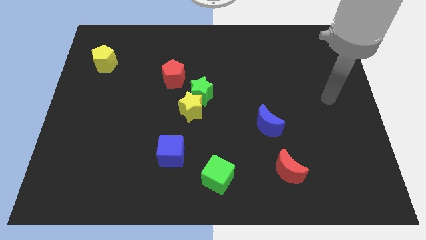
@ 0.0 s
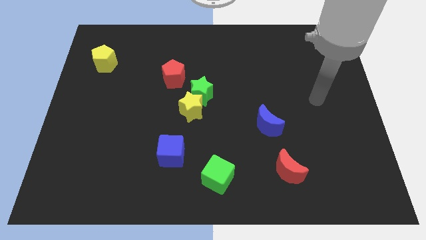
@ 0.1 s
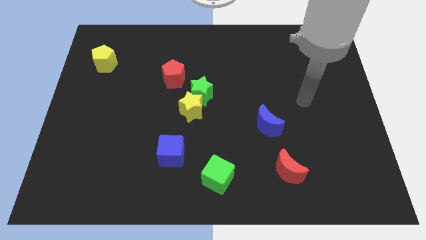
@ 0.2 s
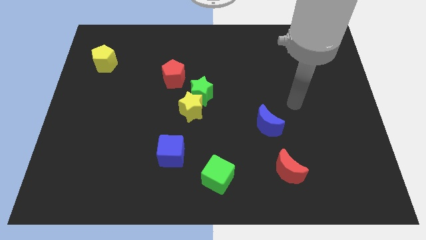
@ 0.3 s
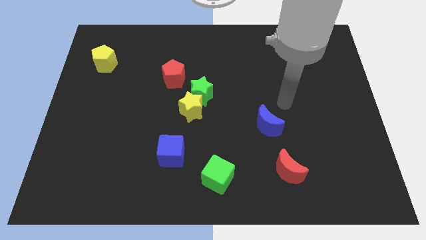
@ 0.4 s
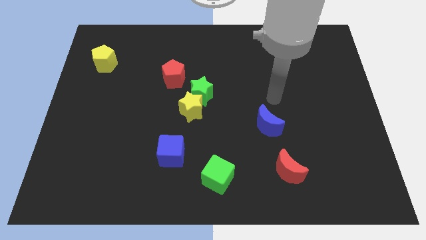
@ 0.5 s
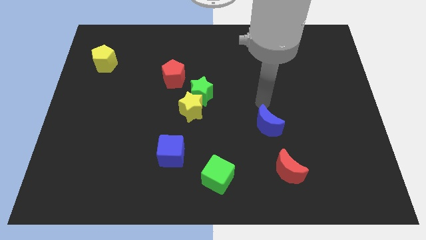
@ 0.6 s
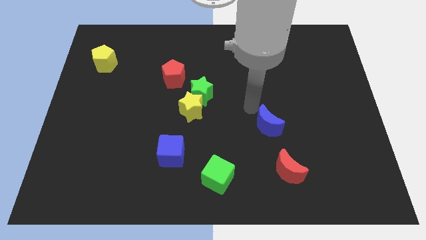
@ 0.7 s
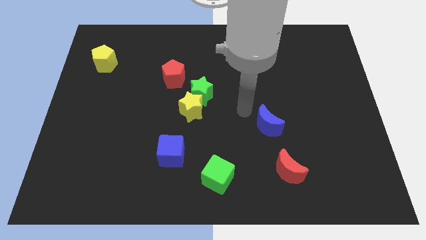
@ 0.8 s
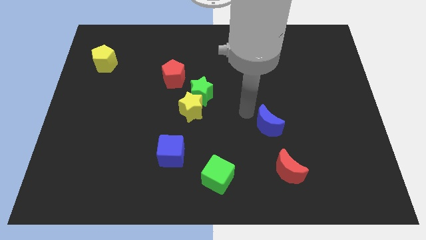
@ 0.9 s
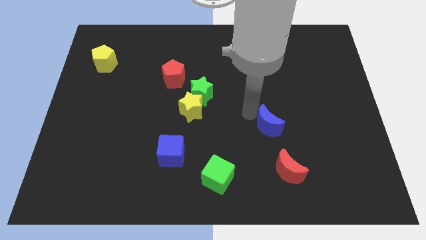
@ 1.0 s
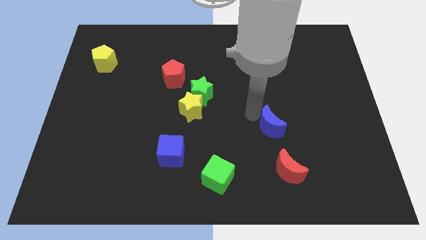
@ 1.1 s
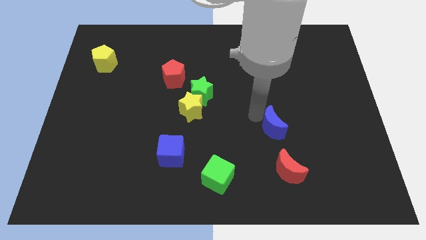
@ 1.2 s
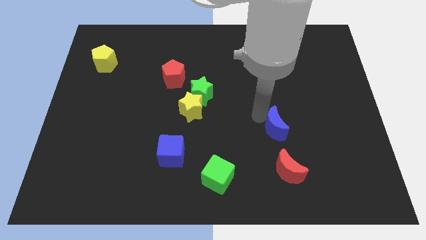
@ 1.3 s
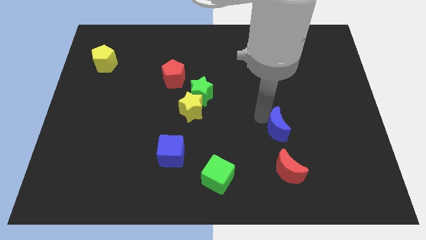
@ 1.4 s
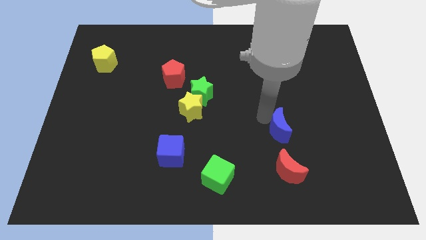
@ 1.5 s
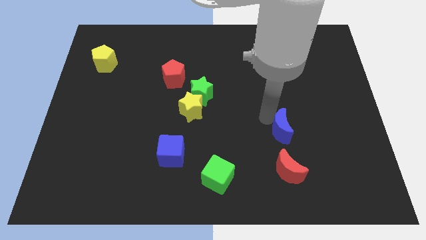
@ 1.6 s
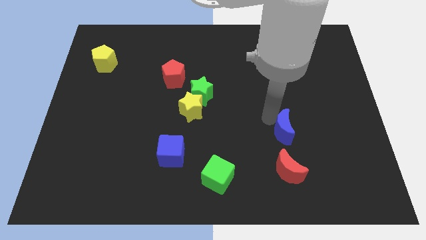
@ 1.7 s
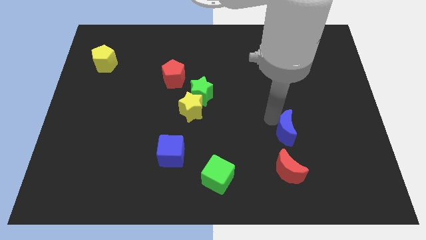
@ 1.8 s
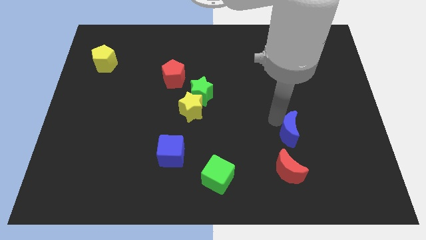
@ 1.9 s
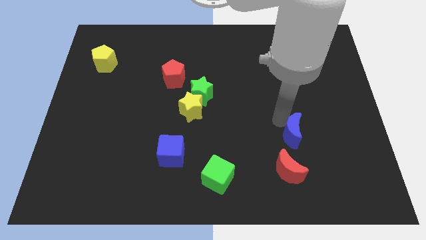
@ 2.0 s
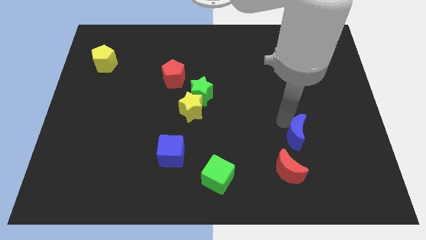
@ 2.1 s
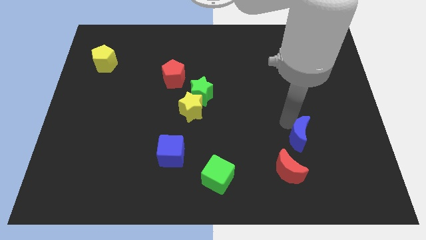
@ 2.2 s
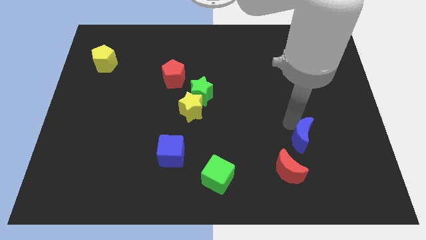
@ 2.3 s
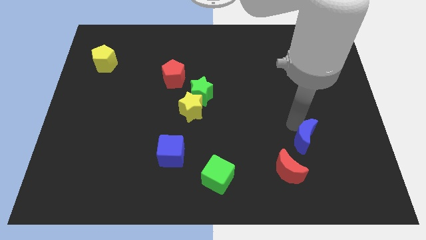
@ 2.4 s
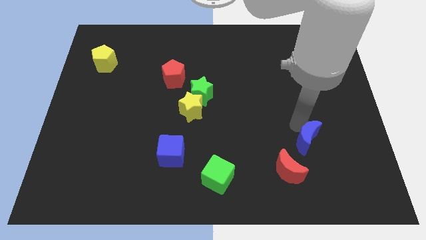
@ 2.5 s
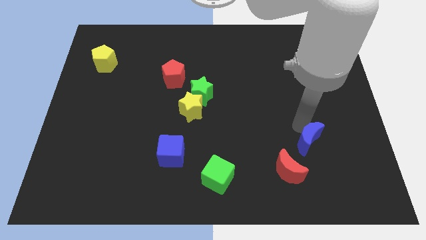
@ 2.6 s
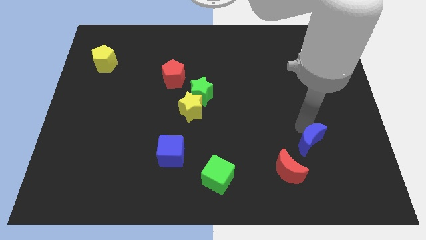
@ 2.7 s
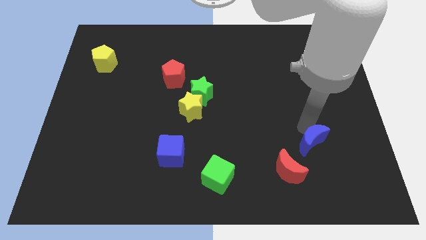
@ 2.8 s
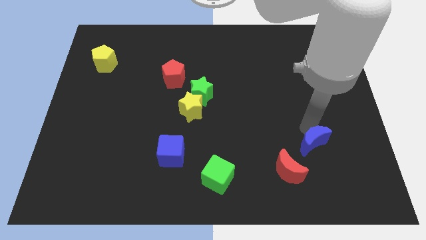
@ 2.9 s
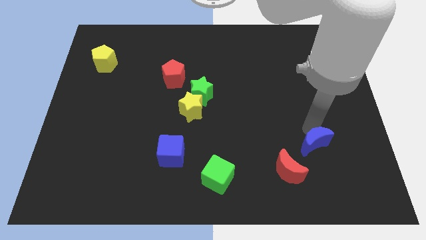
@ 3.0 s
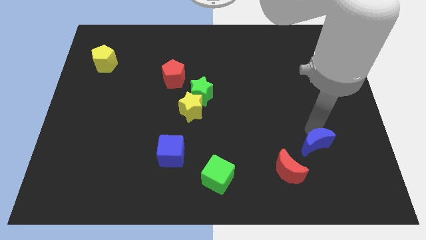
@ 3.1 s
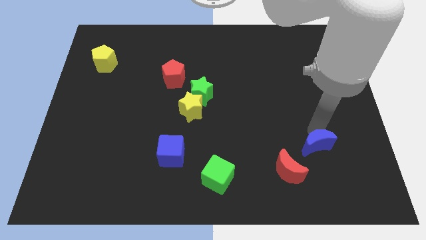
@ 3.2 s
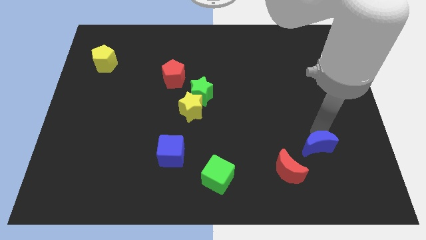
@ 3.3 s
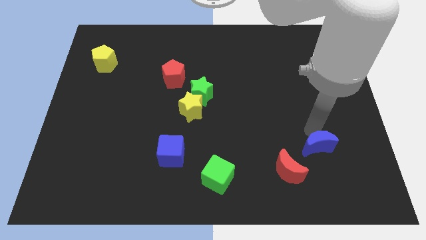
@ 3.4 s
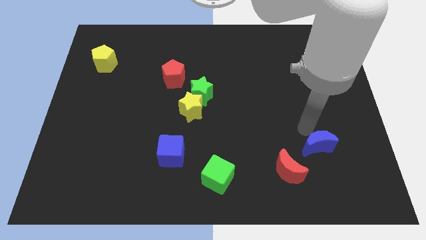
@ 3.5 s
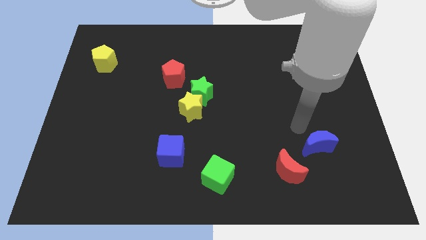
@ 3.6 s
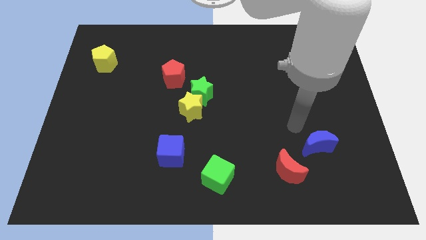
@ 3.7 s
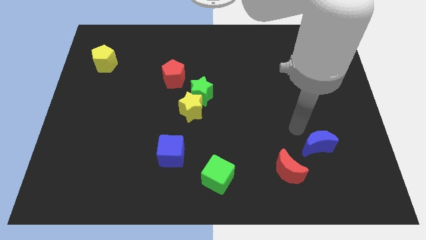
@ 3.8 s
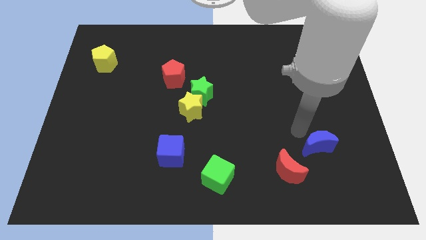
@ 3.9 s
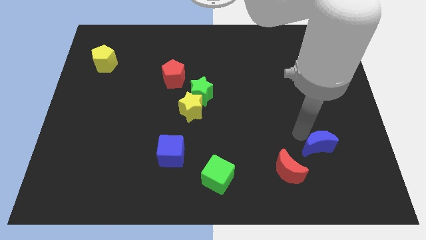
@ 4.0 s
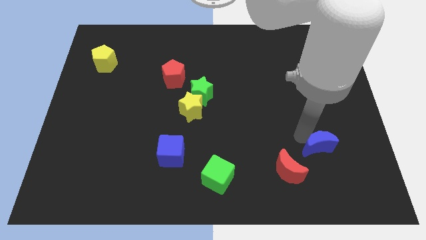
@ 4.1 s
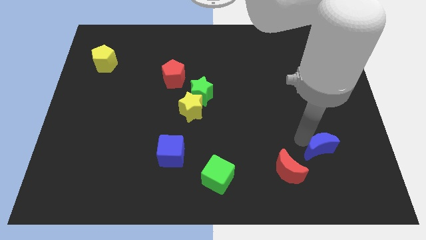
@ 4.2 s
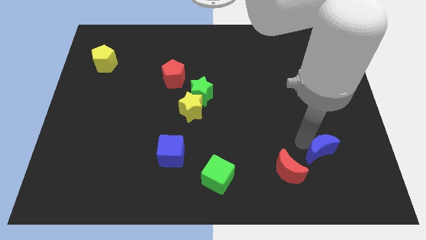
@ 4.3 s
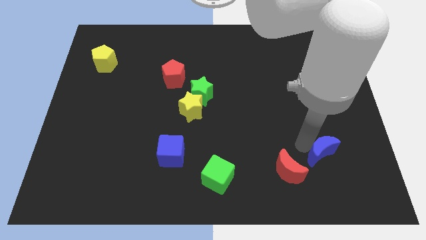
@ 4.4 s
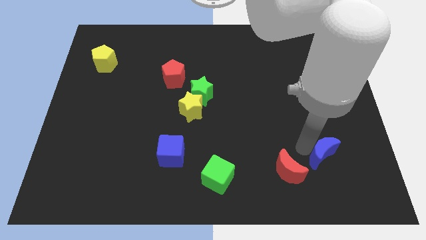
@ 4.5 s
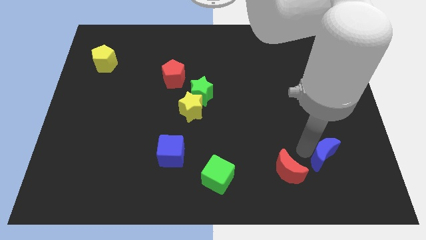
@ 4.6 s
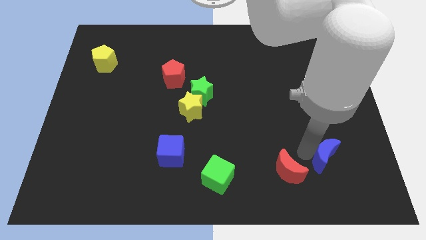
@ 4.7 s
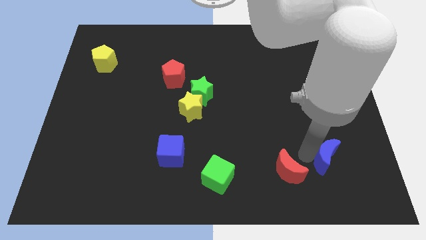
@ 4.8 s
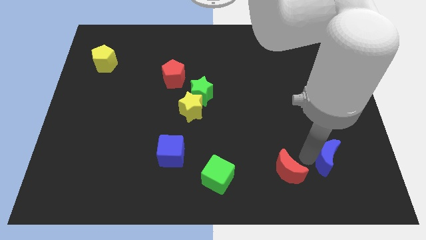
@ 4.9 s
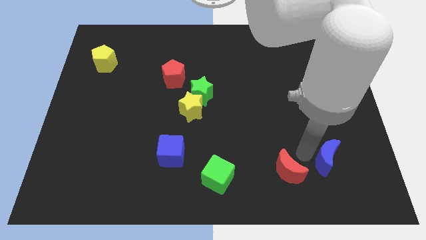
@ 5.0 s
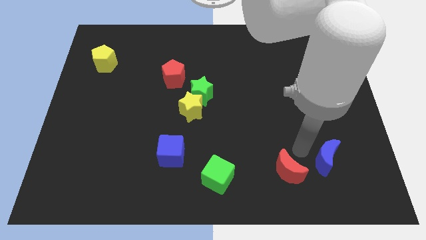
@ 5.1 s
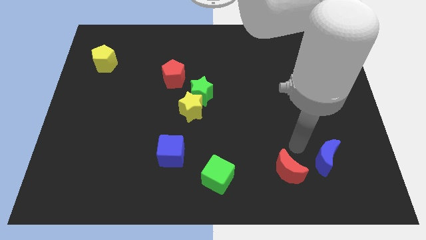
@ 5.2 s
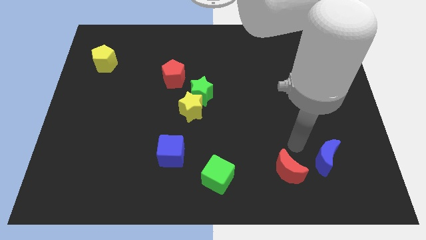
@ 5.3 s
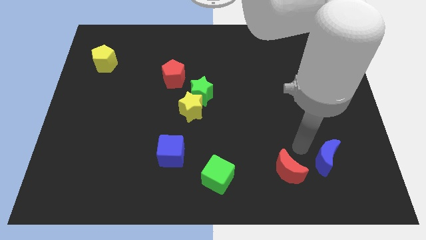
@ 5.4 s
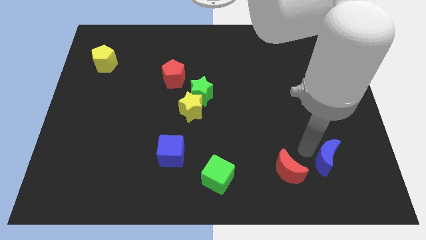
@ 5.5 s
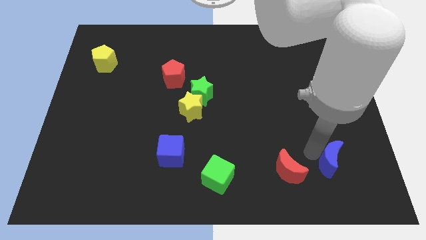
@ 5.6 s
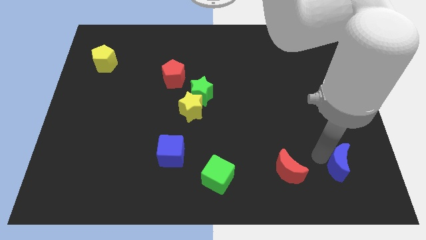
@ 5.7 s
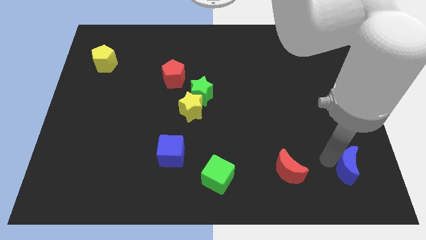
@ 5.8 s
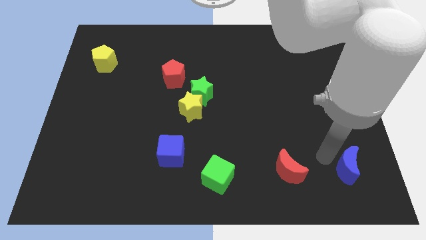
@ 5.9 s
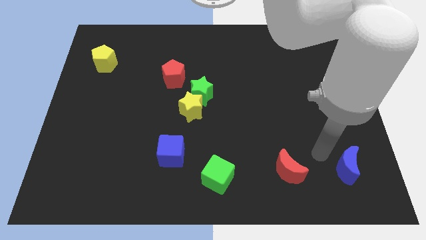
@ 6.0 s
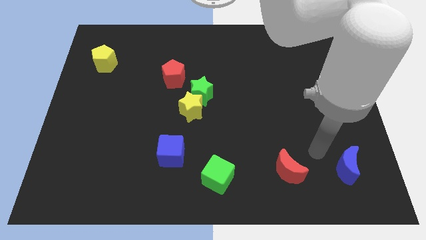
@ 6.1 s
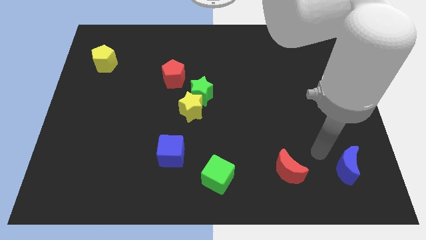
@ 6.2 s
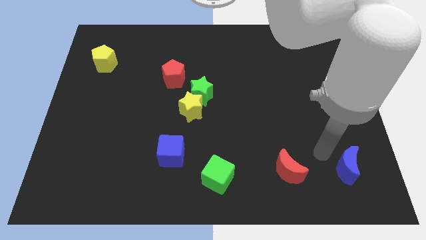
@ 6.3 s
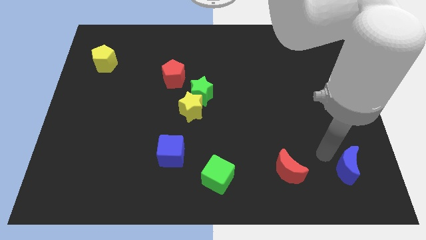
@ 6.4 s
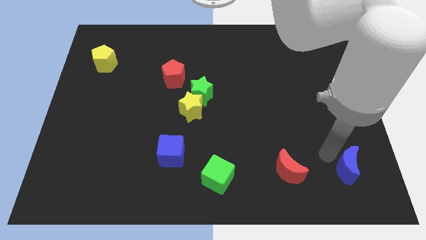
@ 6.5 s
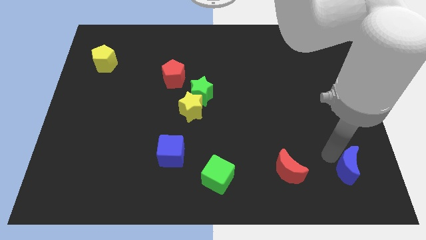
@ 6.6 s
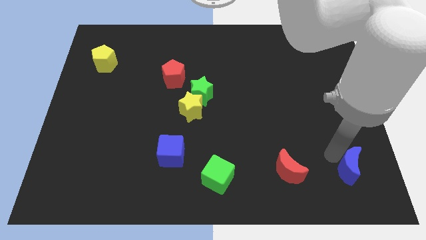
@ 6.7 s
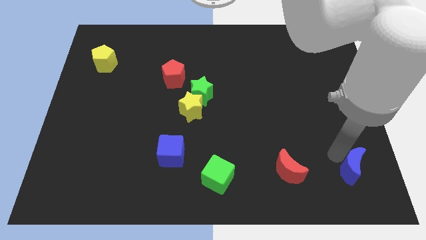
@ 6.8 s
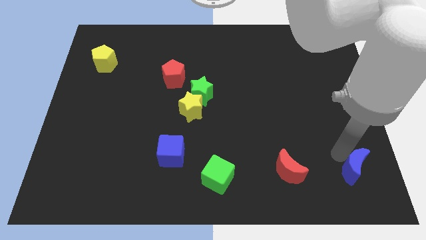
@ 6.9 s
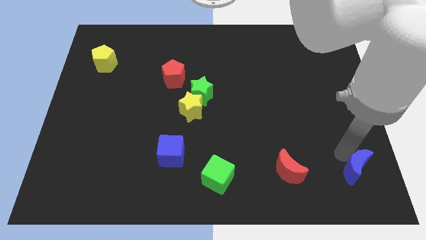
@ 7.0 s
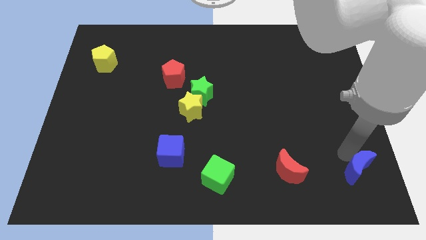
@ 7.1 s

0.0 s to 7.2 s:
put the blue moon to the lower right corner
